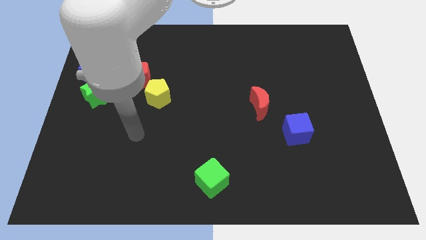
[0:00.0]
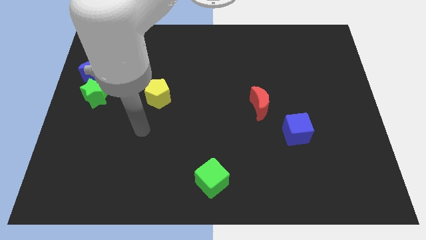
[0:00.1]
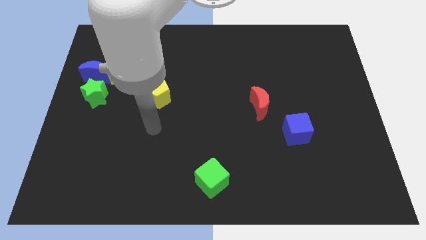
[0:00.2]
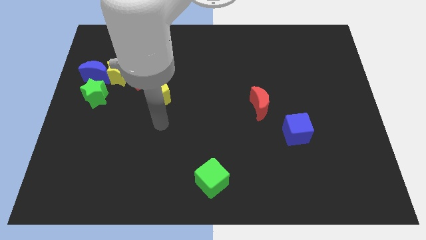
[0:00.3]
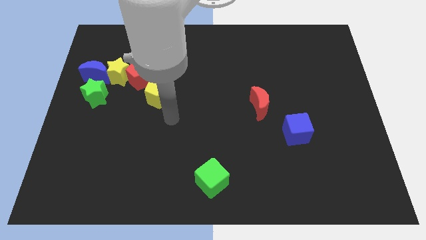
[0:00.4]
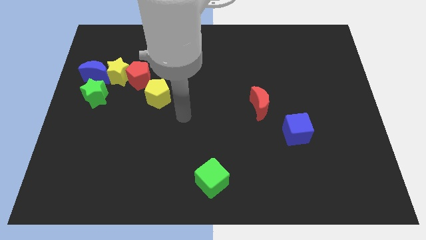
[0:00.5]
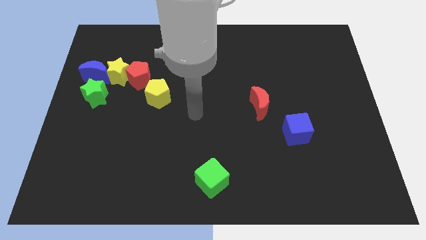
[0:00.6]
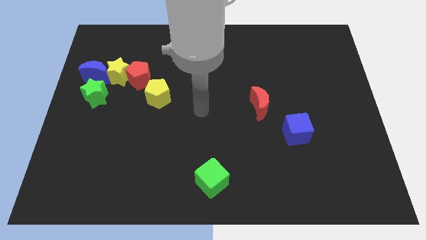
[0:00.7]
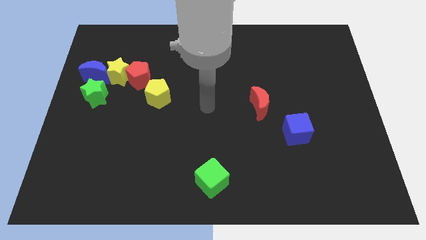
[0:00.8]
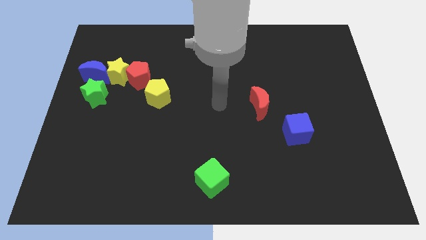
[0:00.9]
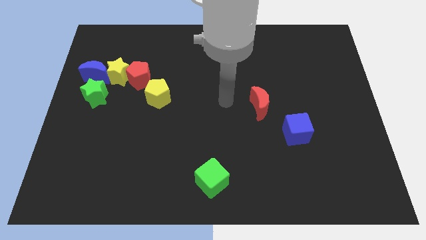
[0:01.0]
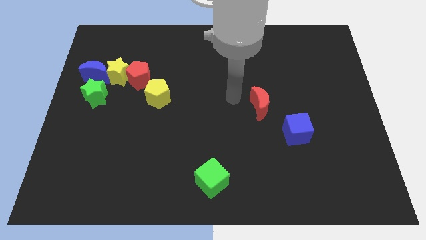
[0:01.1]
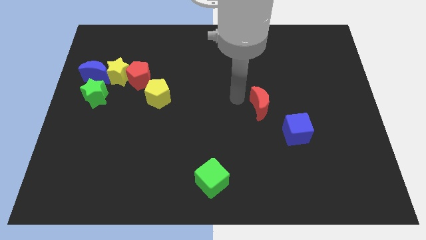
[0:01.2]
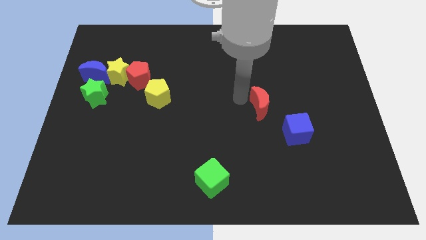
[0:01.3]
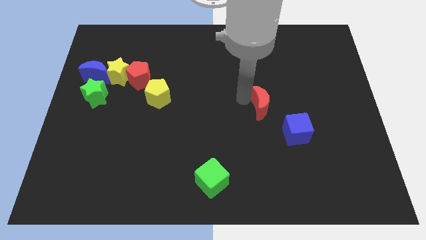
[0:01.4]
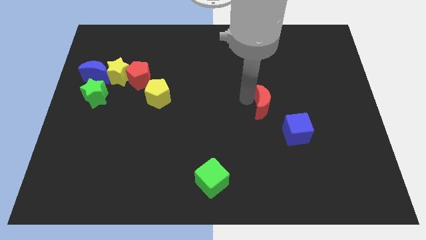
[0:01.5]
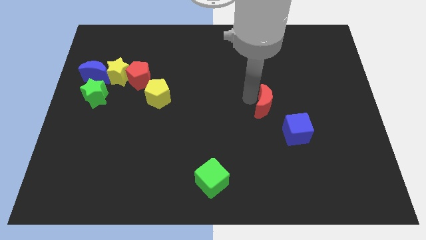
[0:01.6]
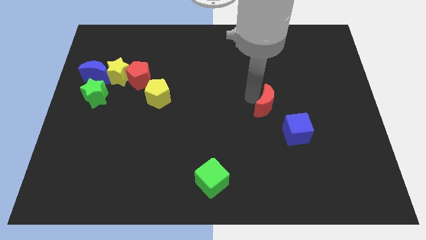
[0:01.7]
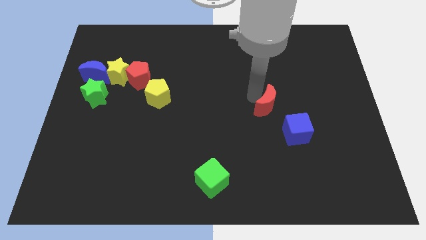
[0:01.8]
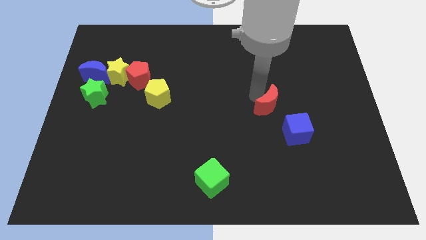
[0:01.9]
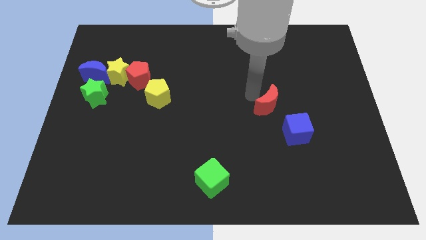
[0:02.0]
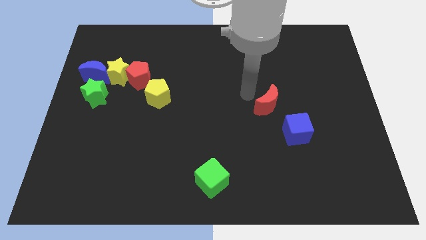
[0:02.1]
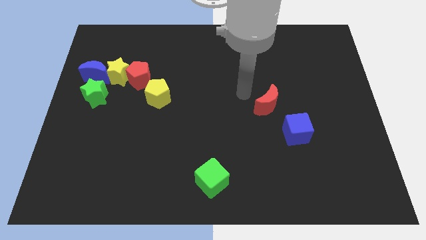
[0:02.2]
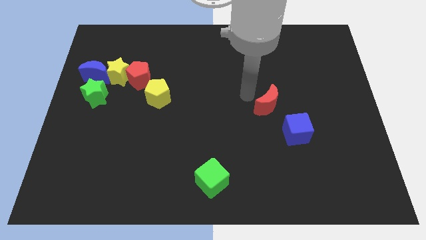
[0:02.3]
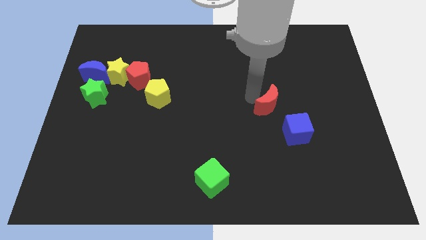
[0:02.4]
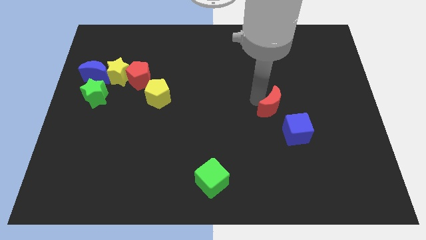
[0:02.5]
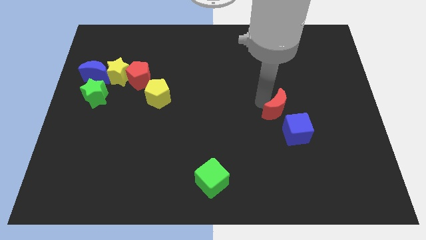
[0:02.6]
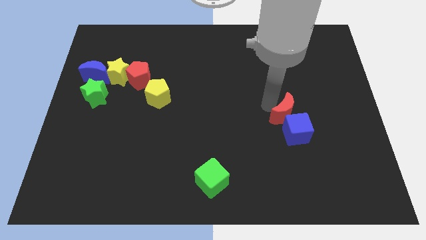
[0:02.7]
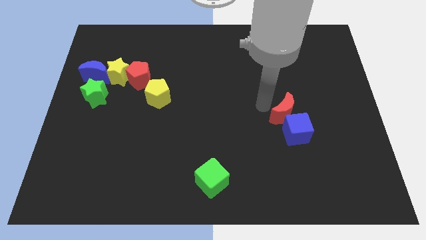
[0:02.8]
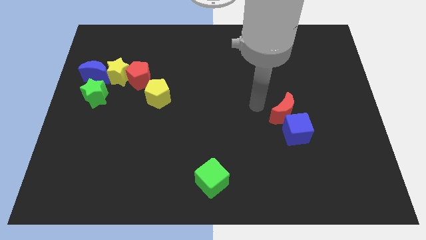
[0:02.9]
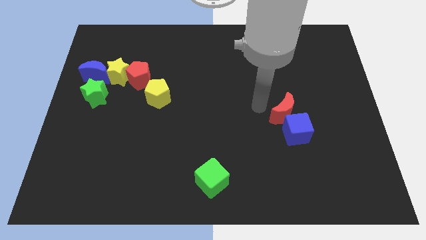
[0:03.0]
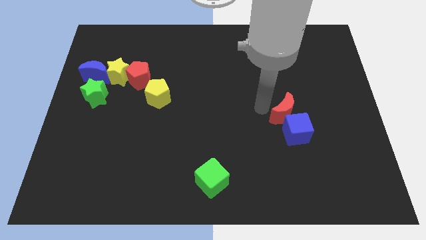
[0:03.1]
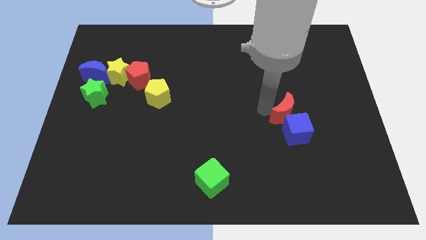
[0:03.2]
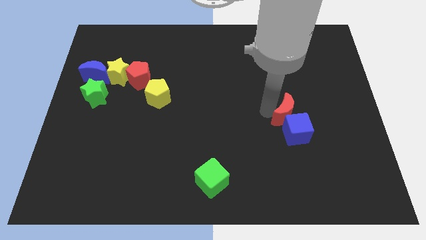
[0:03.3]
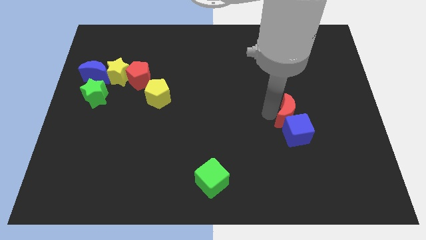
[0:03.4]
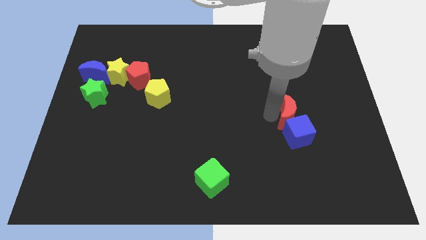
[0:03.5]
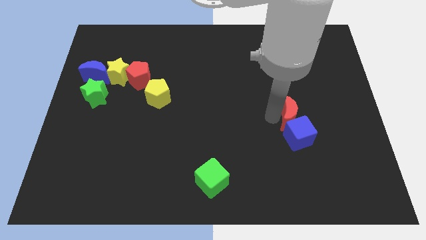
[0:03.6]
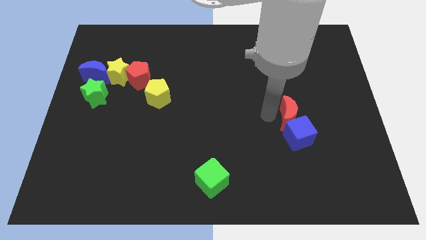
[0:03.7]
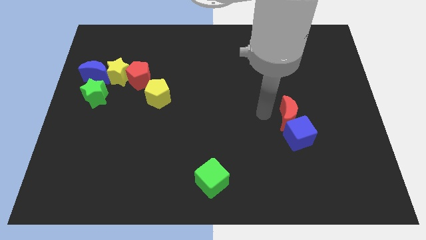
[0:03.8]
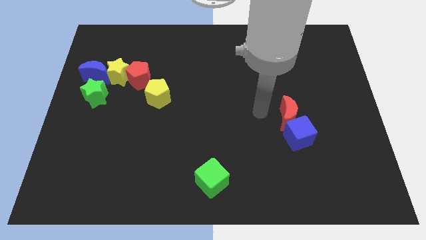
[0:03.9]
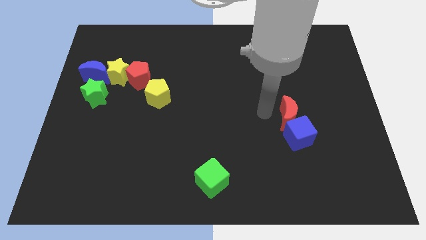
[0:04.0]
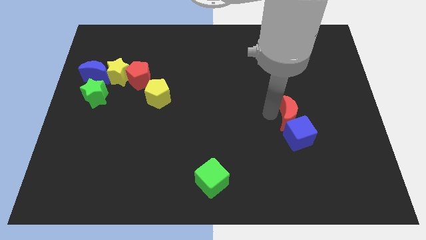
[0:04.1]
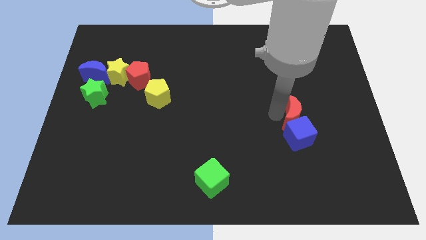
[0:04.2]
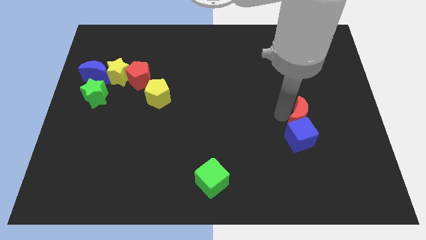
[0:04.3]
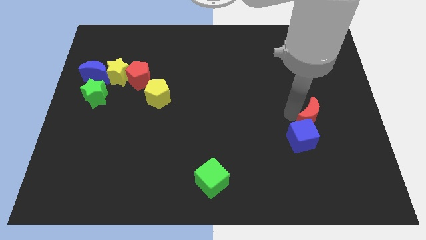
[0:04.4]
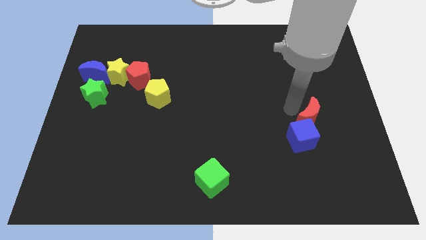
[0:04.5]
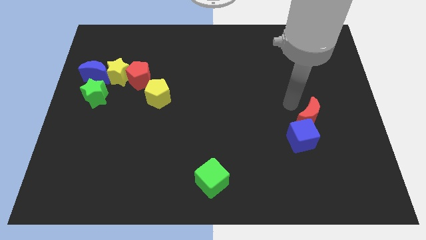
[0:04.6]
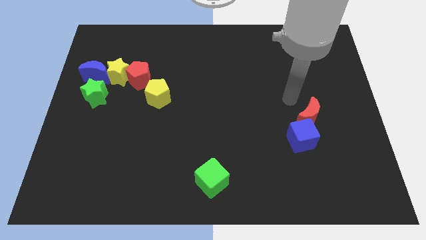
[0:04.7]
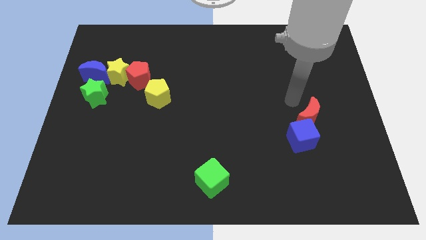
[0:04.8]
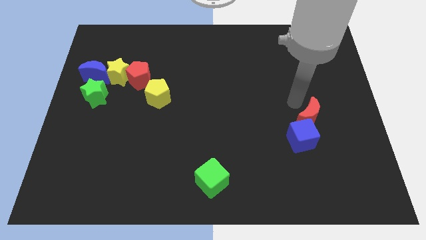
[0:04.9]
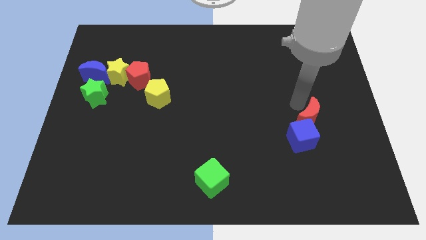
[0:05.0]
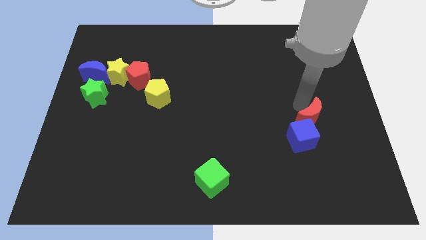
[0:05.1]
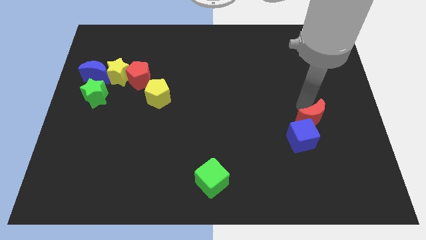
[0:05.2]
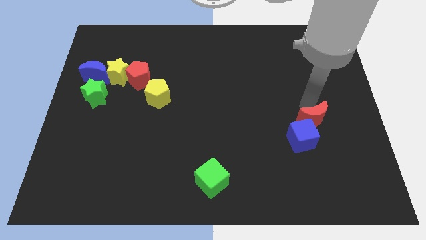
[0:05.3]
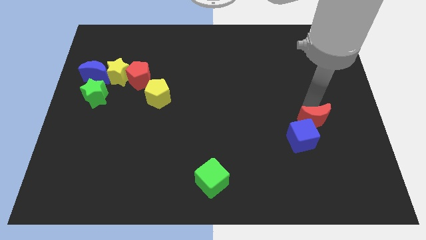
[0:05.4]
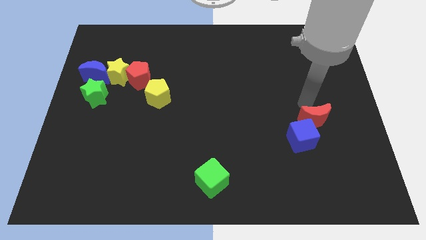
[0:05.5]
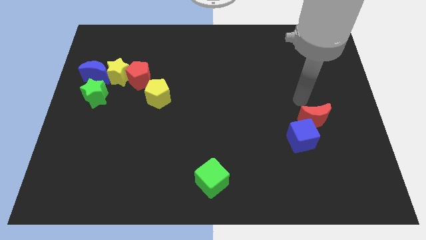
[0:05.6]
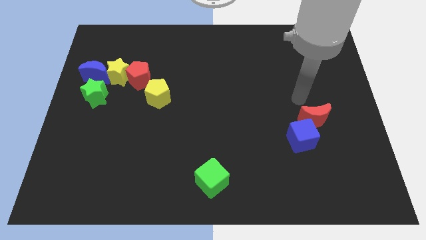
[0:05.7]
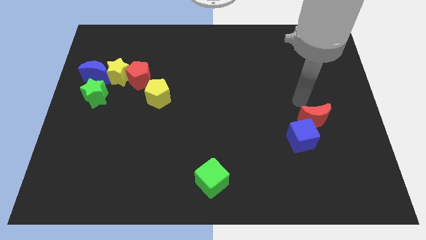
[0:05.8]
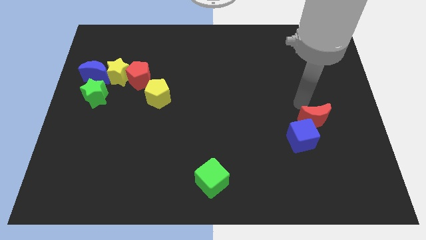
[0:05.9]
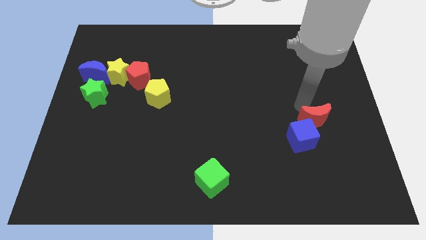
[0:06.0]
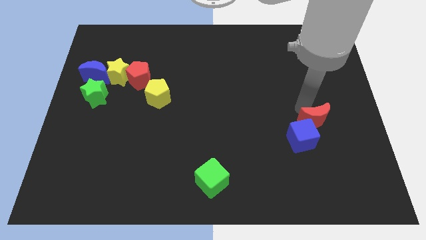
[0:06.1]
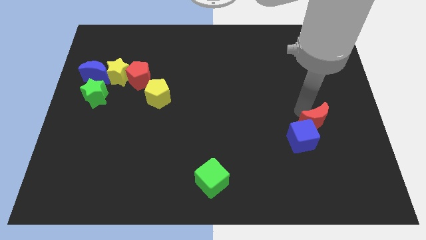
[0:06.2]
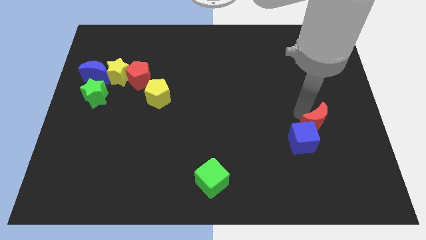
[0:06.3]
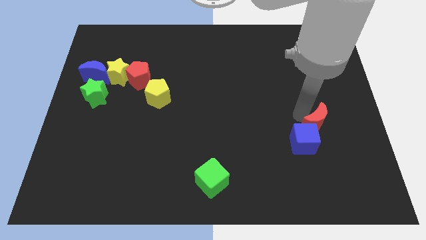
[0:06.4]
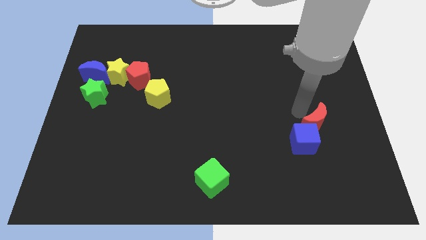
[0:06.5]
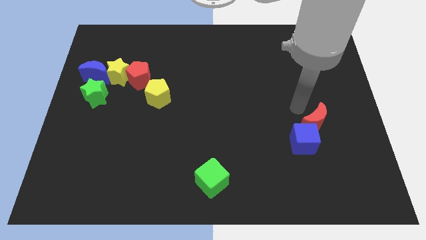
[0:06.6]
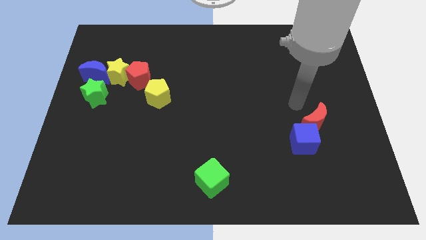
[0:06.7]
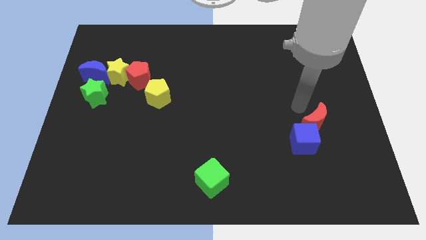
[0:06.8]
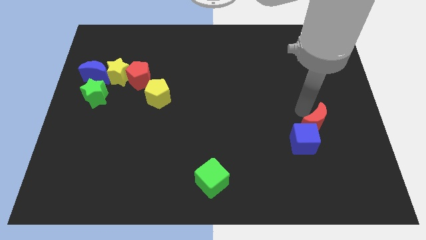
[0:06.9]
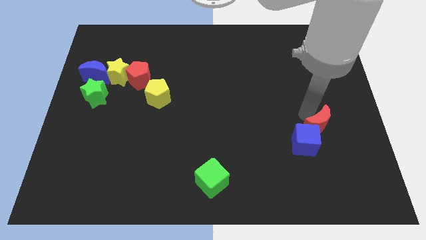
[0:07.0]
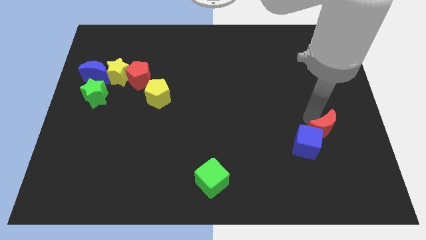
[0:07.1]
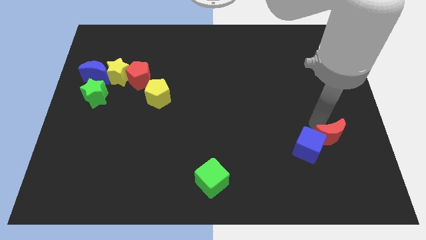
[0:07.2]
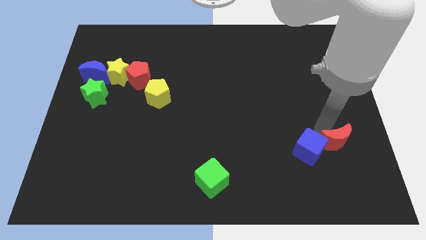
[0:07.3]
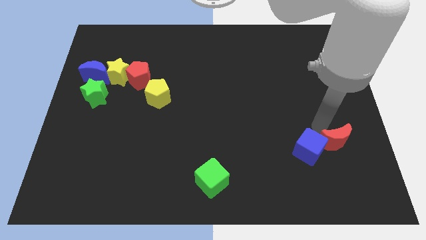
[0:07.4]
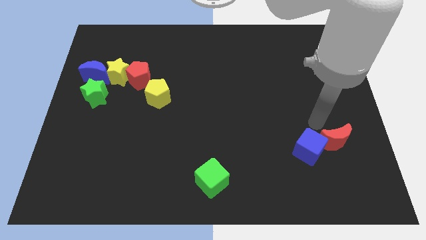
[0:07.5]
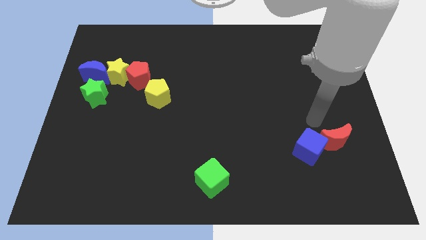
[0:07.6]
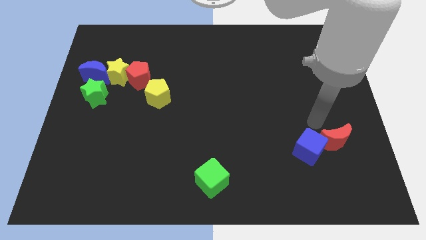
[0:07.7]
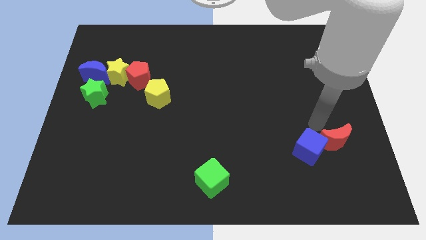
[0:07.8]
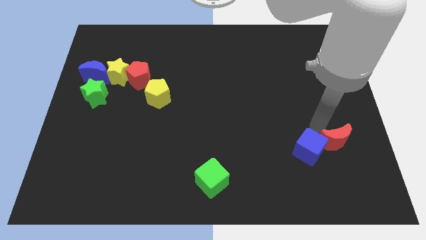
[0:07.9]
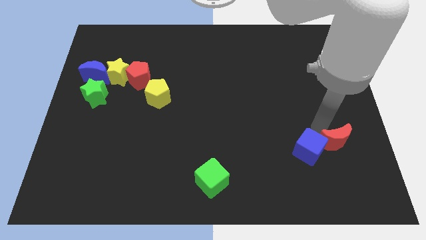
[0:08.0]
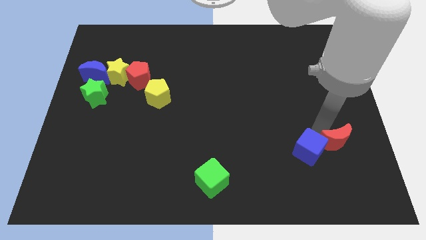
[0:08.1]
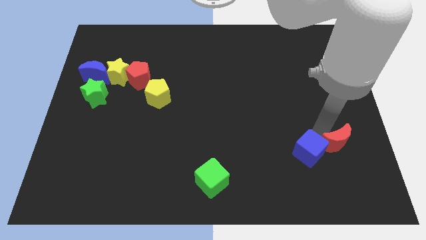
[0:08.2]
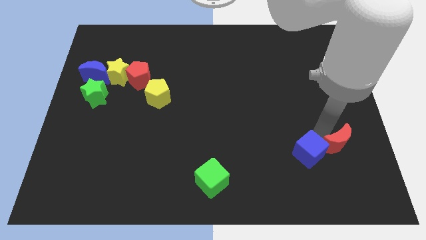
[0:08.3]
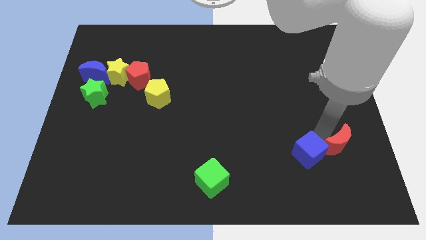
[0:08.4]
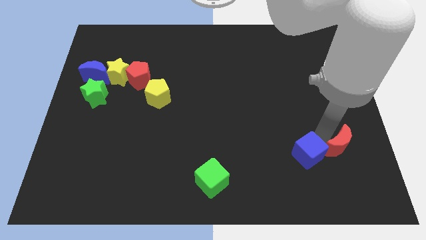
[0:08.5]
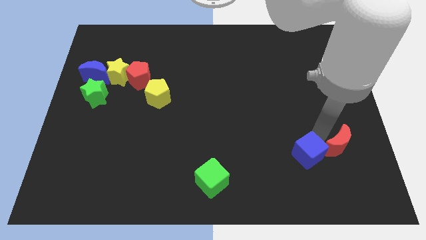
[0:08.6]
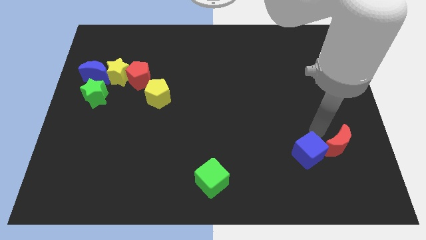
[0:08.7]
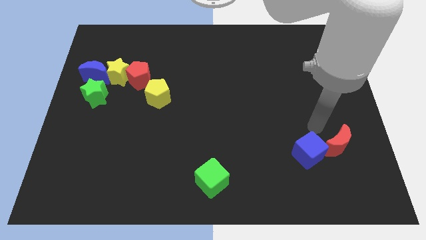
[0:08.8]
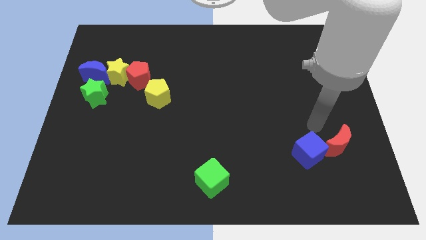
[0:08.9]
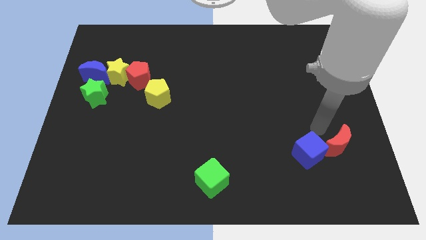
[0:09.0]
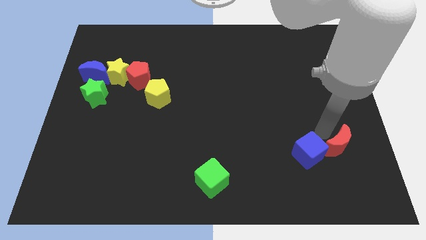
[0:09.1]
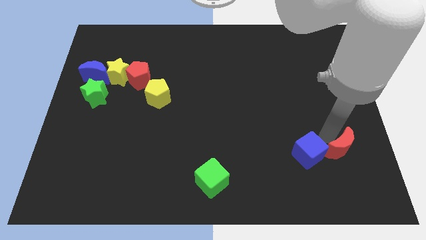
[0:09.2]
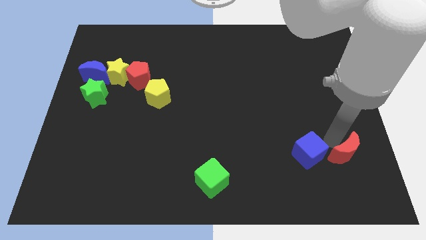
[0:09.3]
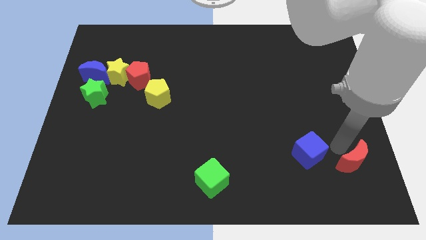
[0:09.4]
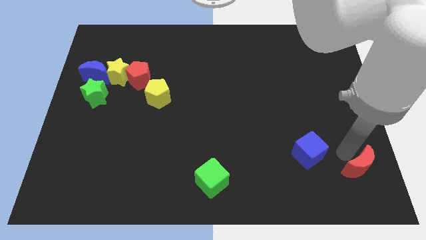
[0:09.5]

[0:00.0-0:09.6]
push the red moon to the bottom right of the board
